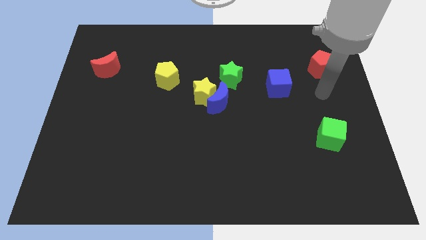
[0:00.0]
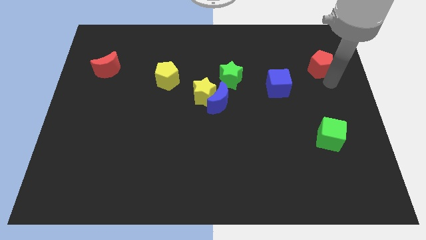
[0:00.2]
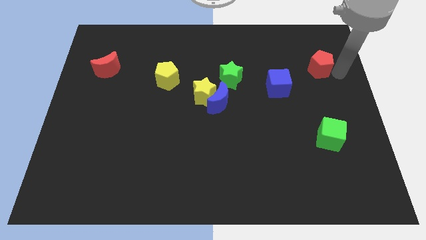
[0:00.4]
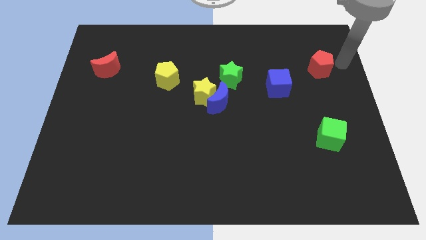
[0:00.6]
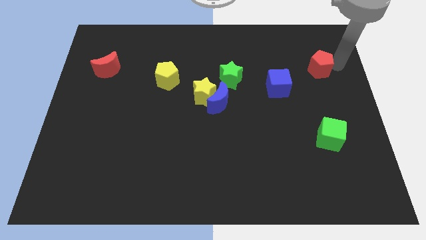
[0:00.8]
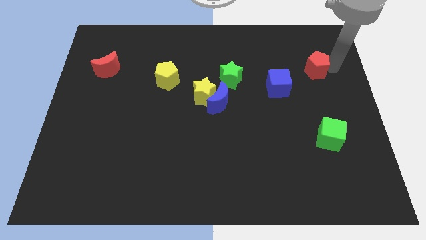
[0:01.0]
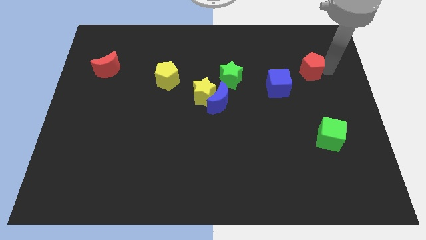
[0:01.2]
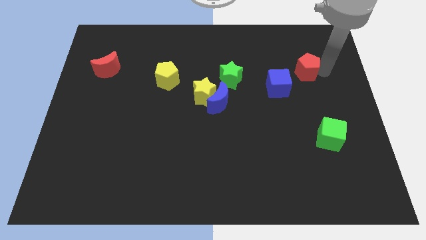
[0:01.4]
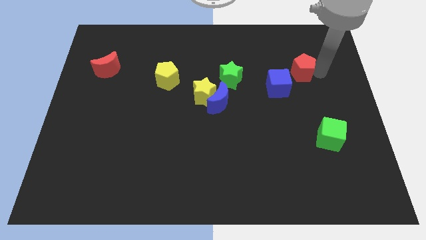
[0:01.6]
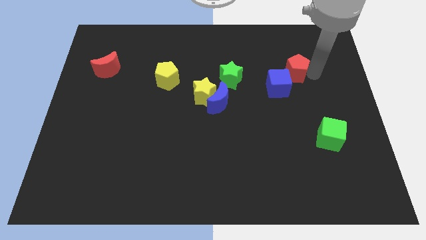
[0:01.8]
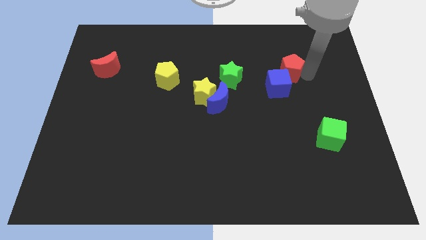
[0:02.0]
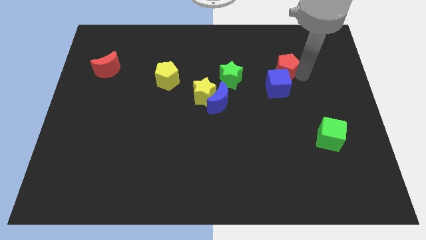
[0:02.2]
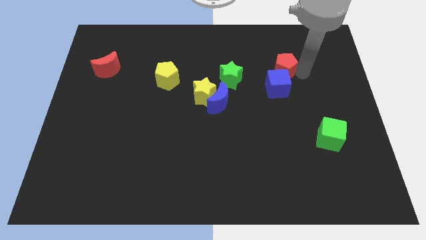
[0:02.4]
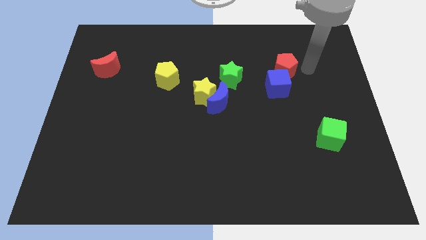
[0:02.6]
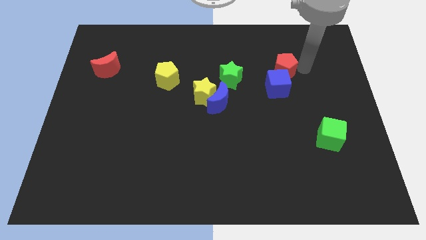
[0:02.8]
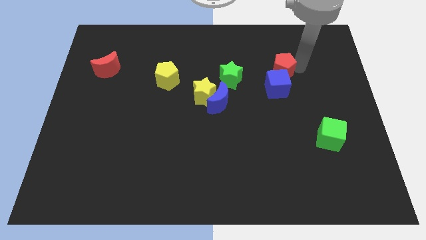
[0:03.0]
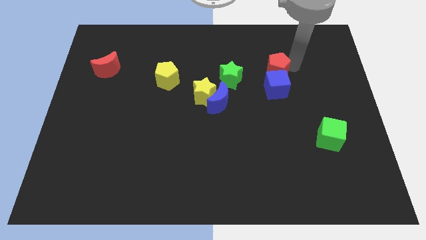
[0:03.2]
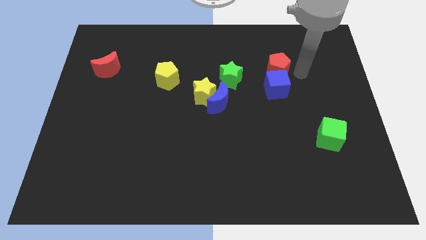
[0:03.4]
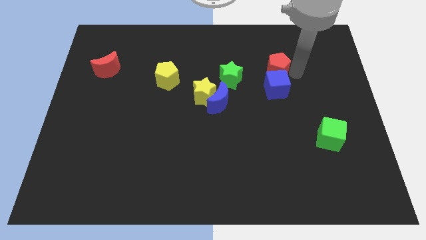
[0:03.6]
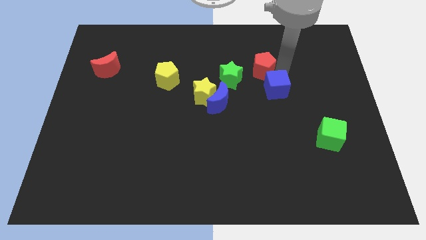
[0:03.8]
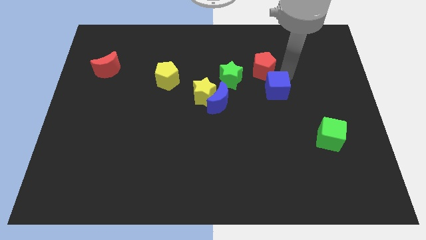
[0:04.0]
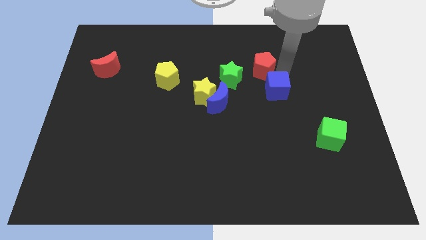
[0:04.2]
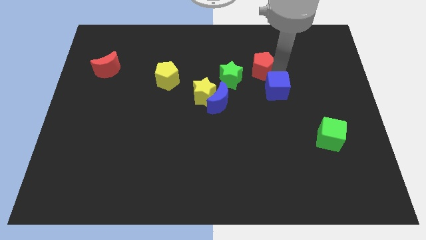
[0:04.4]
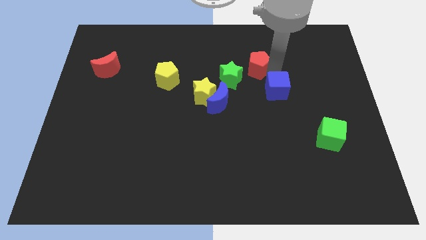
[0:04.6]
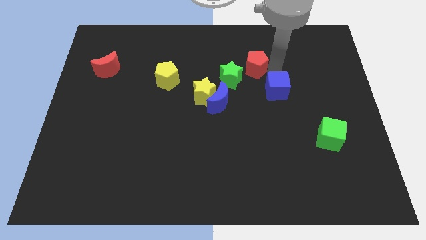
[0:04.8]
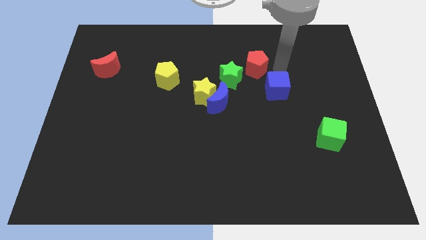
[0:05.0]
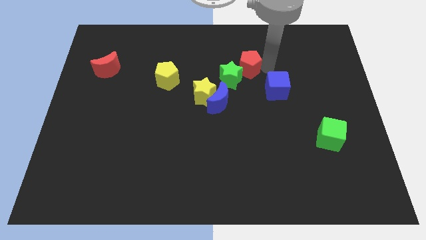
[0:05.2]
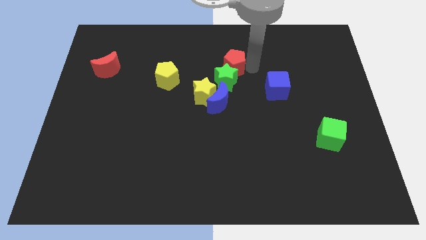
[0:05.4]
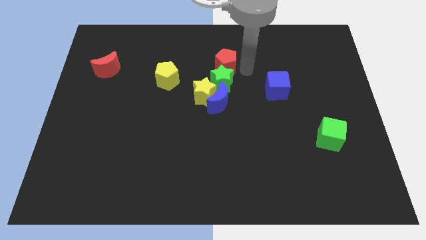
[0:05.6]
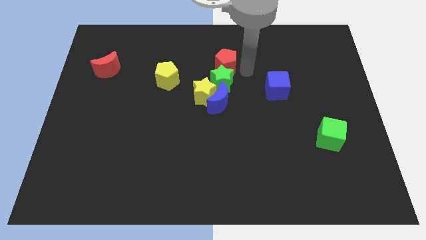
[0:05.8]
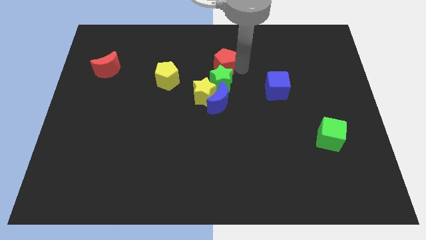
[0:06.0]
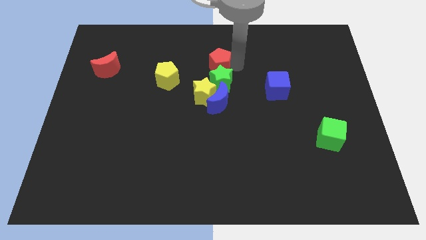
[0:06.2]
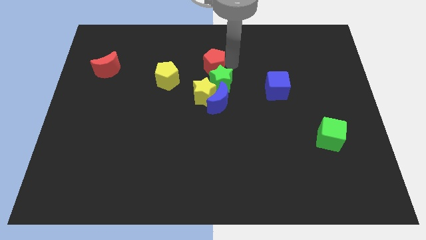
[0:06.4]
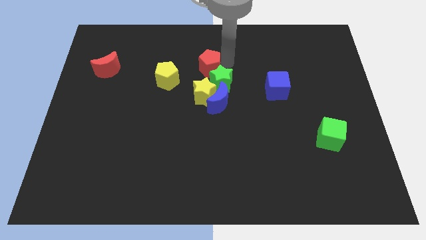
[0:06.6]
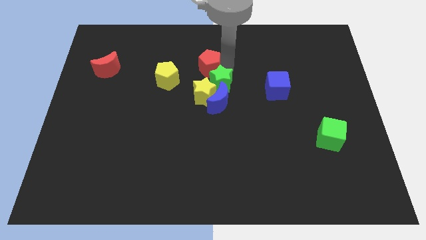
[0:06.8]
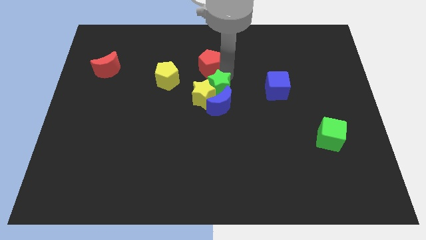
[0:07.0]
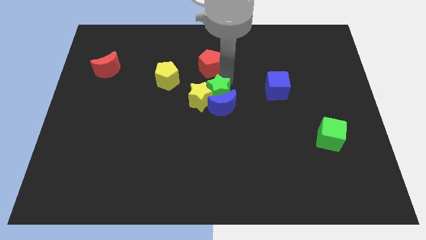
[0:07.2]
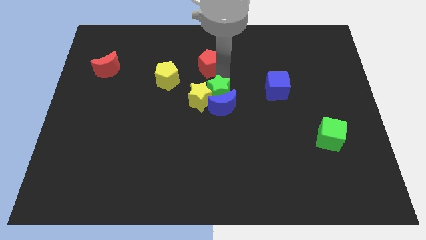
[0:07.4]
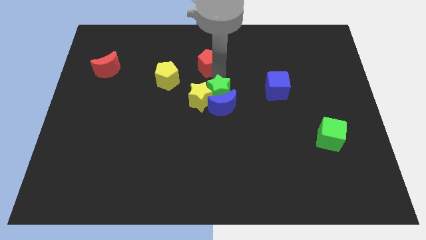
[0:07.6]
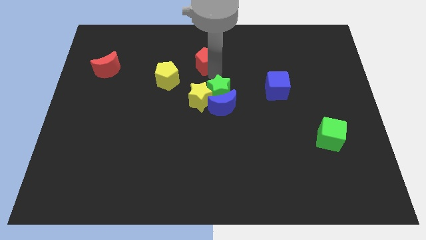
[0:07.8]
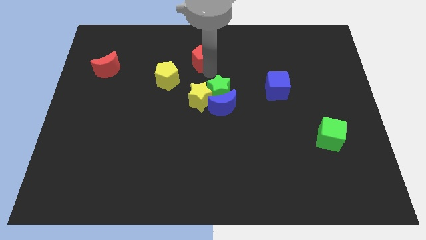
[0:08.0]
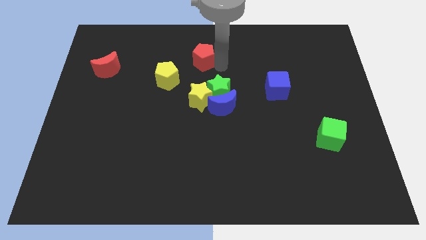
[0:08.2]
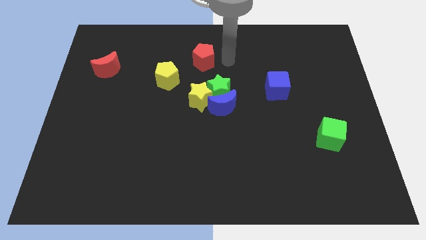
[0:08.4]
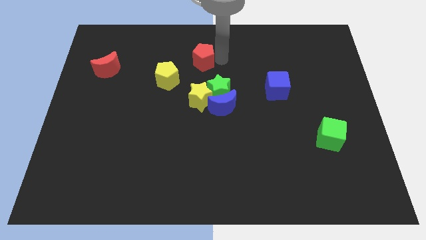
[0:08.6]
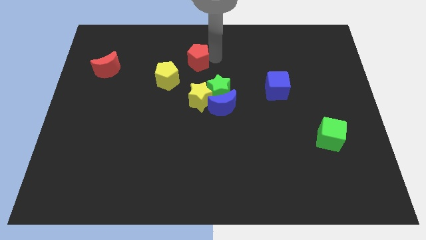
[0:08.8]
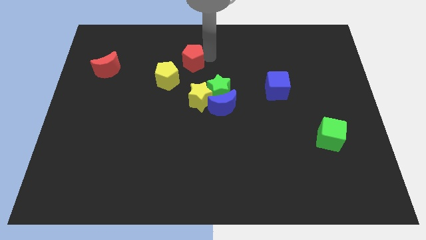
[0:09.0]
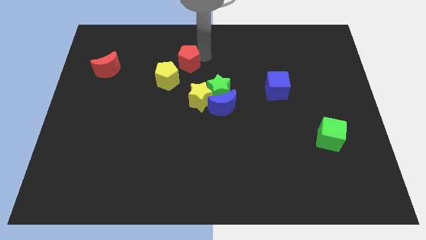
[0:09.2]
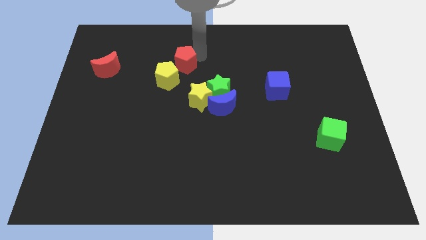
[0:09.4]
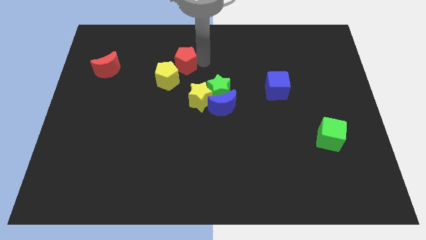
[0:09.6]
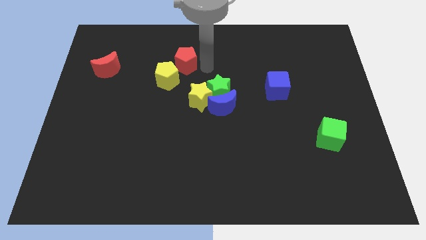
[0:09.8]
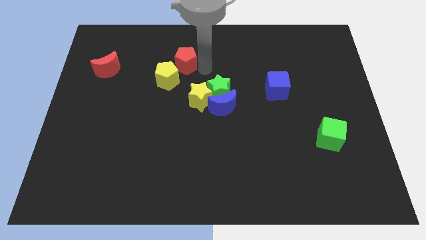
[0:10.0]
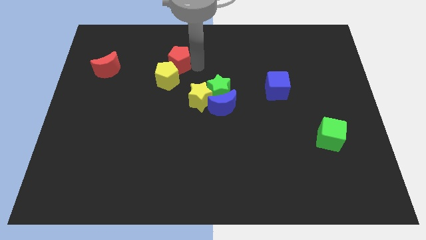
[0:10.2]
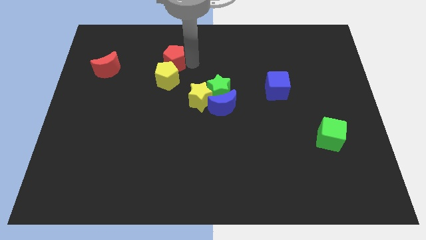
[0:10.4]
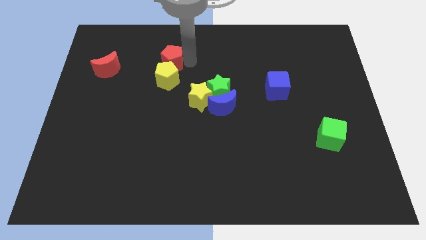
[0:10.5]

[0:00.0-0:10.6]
push the red pentagon to the top left of the yellow pentagon

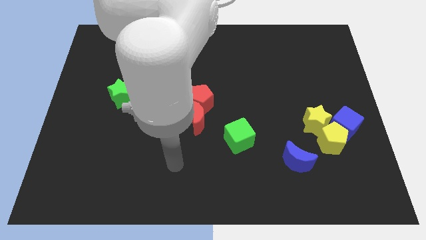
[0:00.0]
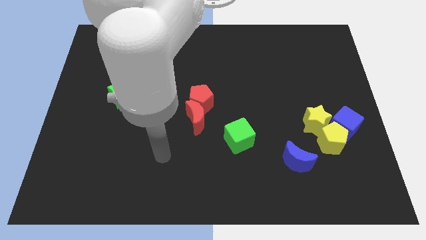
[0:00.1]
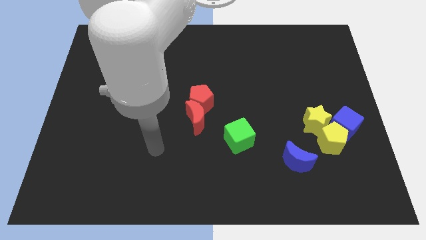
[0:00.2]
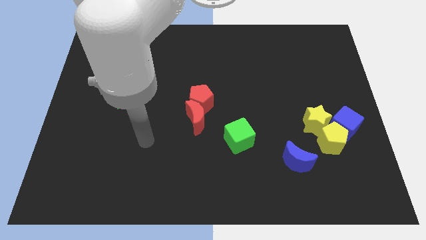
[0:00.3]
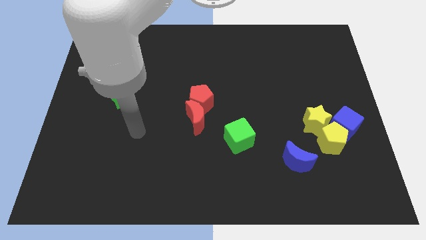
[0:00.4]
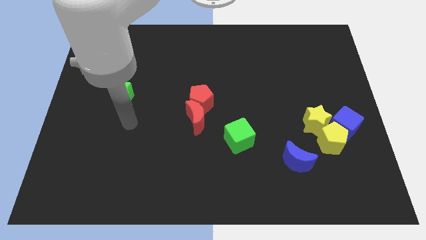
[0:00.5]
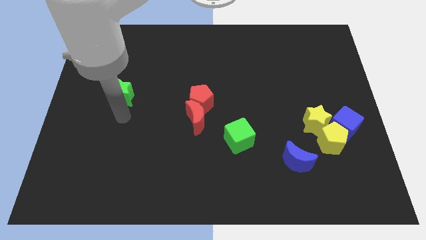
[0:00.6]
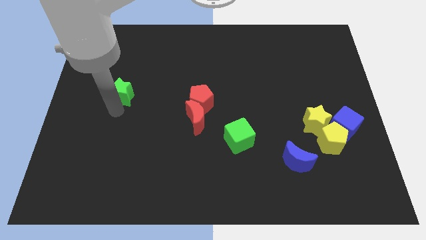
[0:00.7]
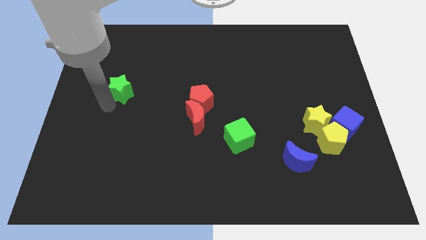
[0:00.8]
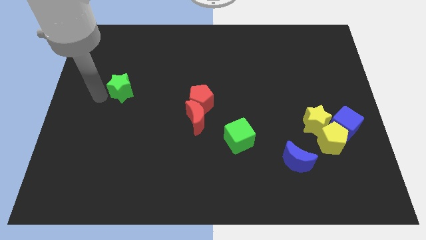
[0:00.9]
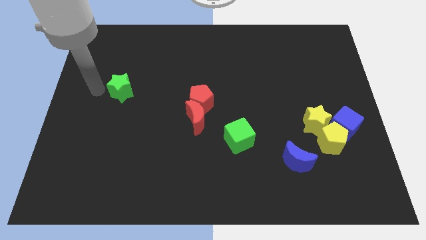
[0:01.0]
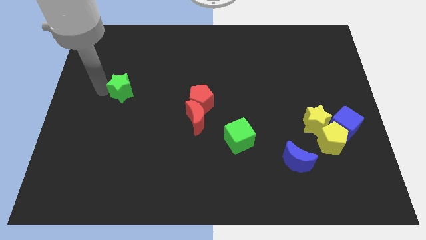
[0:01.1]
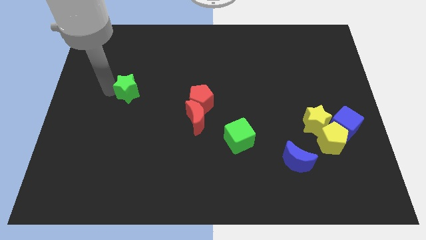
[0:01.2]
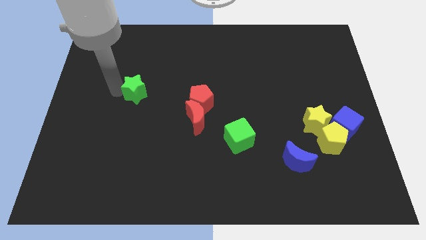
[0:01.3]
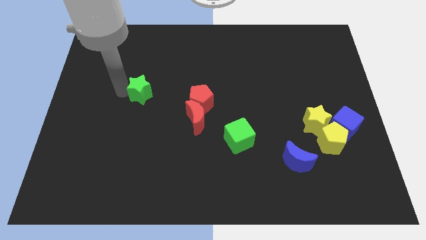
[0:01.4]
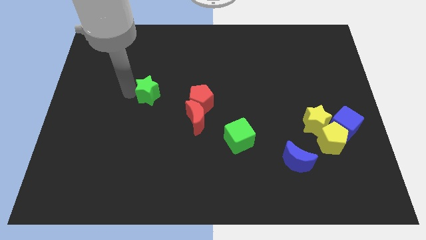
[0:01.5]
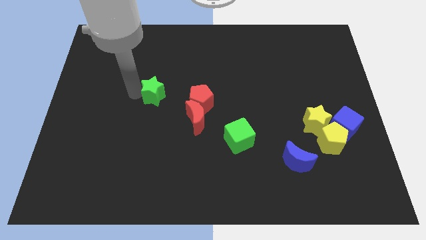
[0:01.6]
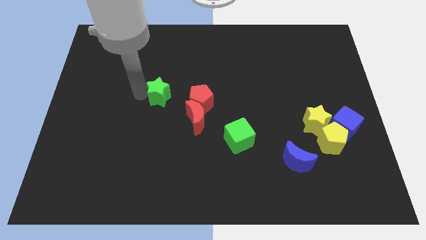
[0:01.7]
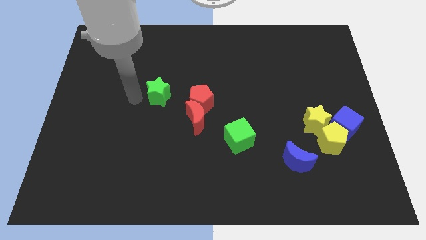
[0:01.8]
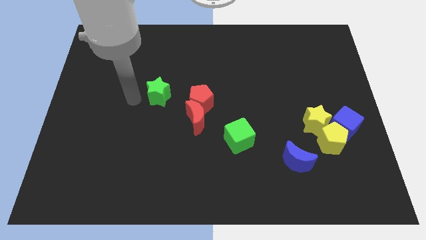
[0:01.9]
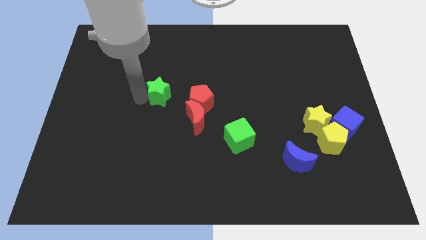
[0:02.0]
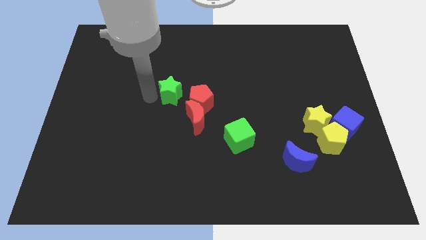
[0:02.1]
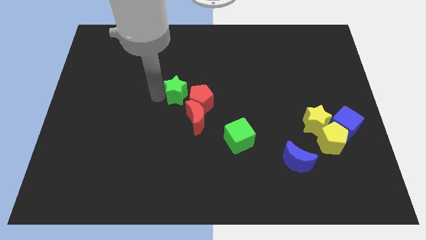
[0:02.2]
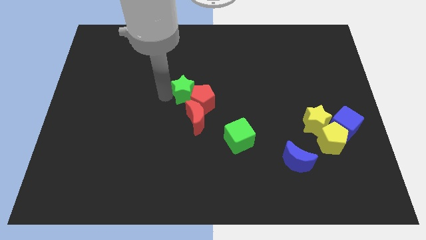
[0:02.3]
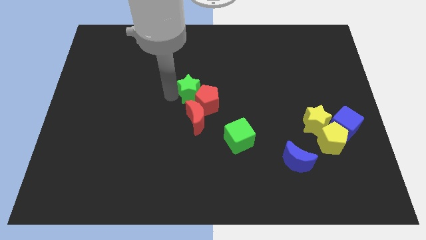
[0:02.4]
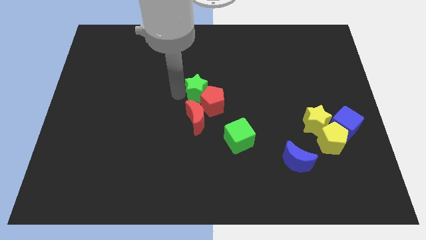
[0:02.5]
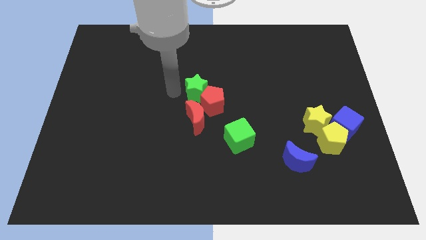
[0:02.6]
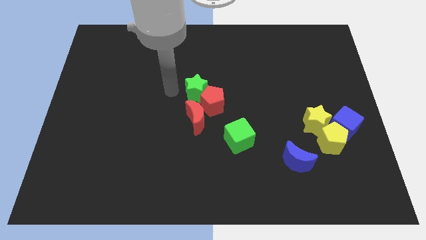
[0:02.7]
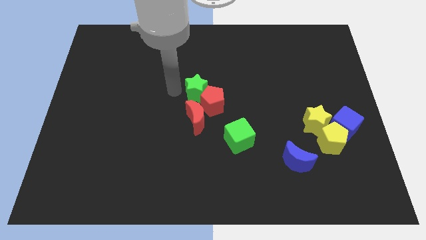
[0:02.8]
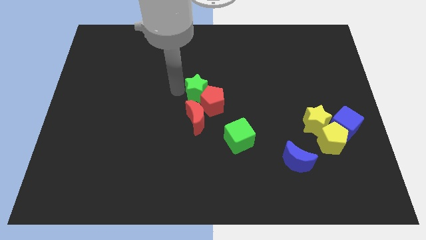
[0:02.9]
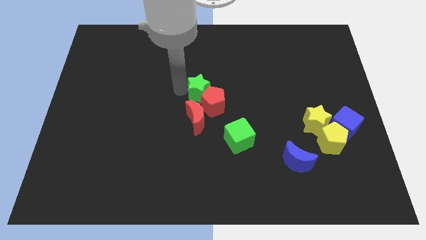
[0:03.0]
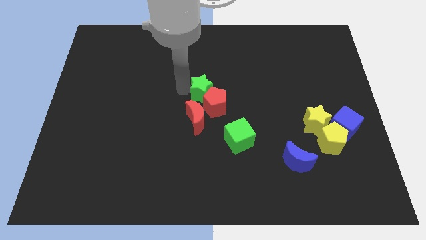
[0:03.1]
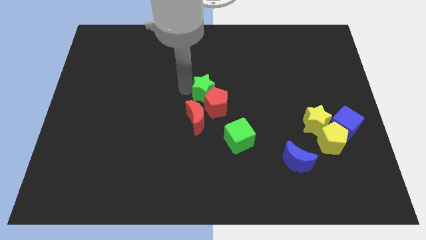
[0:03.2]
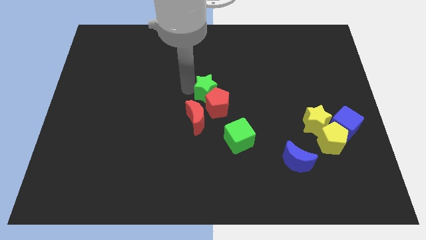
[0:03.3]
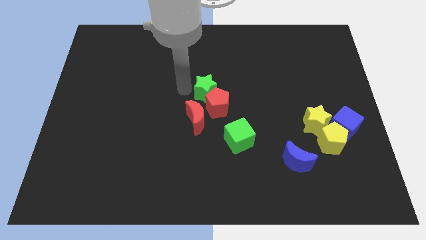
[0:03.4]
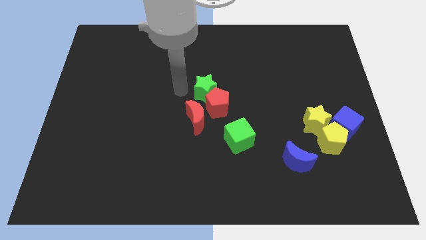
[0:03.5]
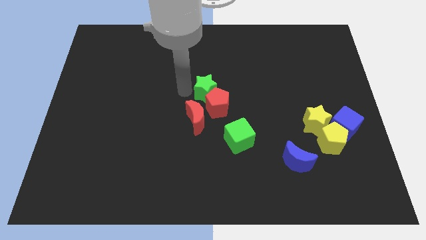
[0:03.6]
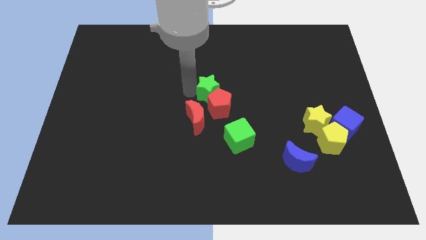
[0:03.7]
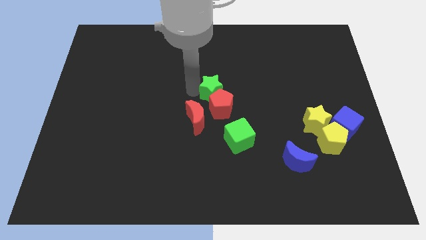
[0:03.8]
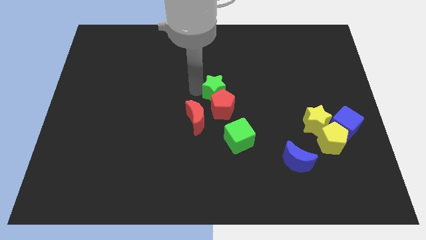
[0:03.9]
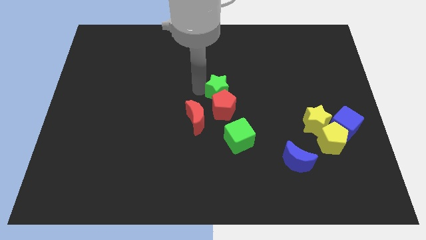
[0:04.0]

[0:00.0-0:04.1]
put the green star above the green cube
